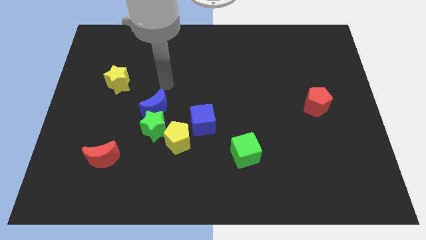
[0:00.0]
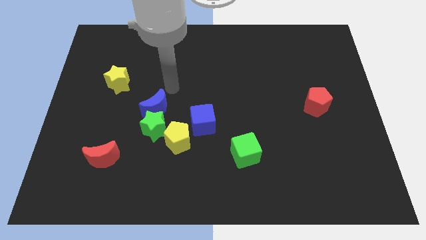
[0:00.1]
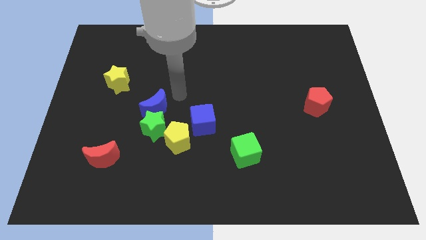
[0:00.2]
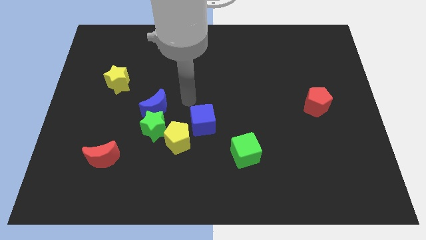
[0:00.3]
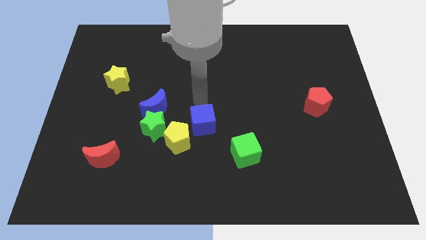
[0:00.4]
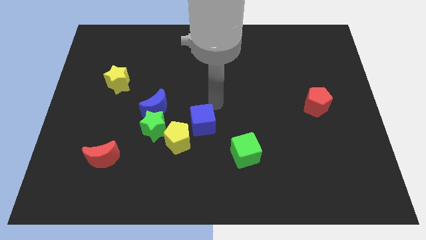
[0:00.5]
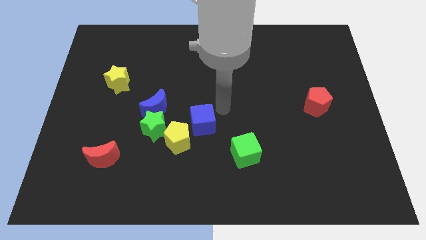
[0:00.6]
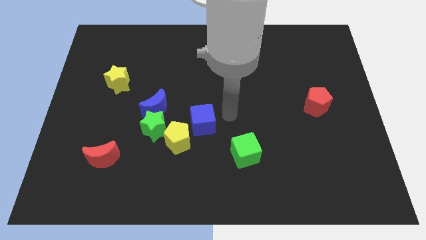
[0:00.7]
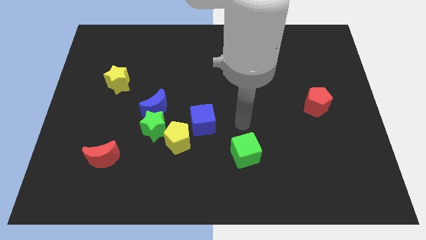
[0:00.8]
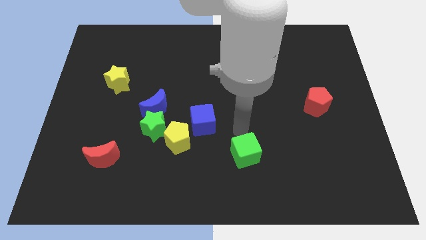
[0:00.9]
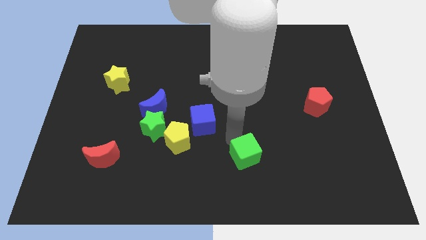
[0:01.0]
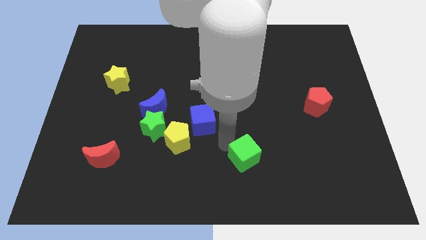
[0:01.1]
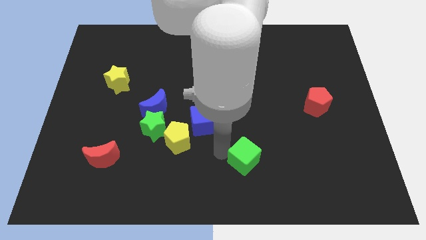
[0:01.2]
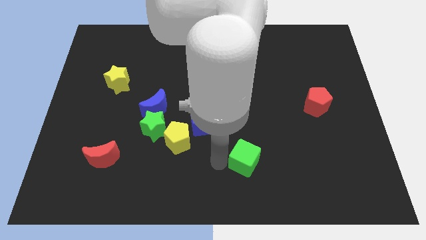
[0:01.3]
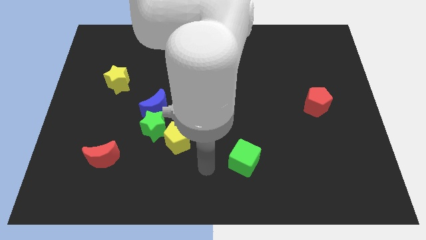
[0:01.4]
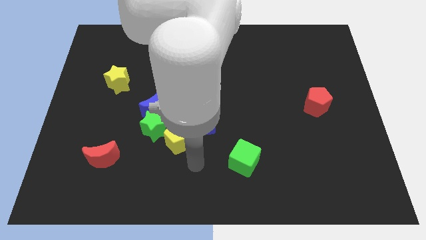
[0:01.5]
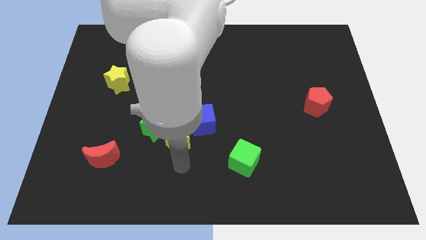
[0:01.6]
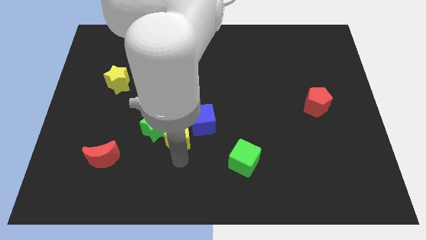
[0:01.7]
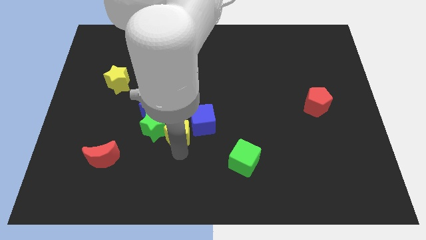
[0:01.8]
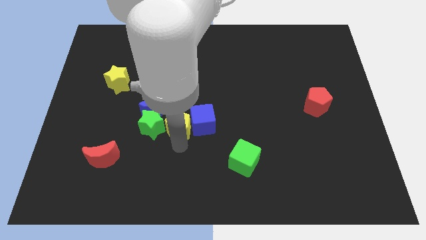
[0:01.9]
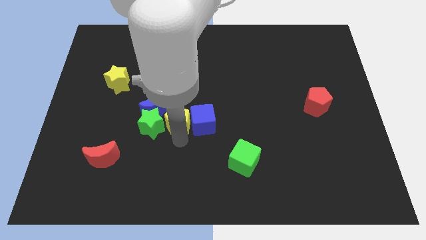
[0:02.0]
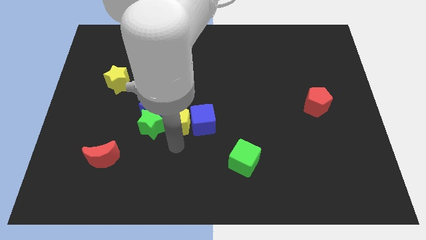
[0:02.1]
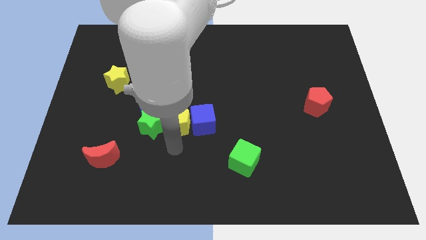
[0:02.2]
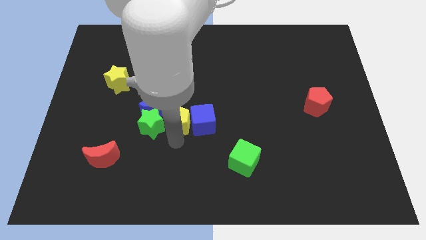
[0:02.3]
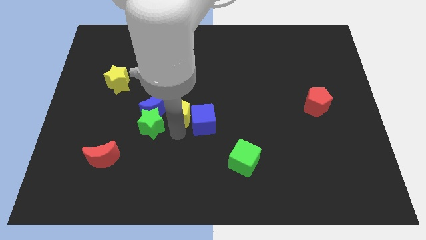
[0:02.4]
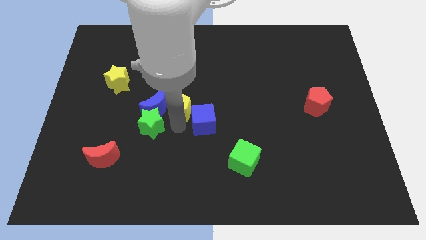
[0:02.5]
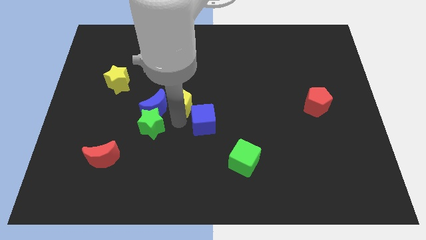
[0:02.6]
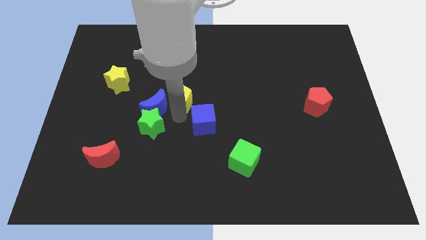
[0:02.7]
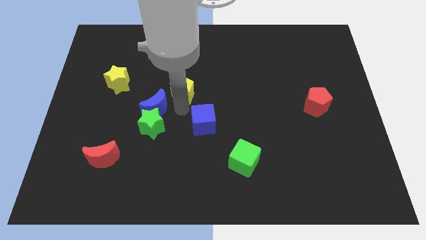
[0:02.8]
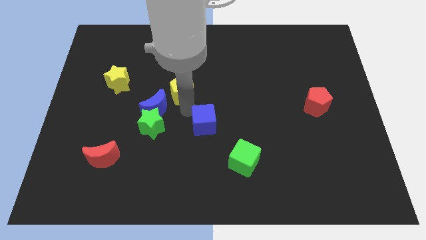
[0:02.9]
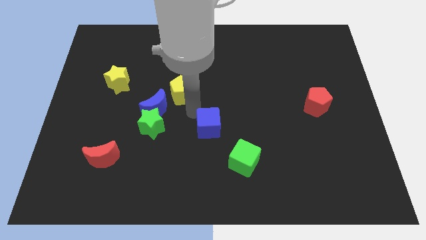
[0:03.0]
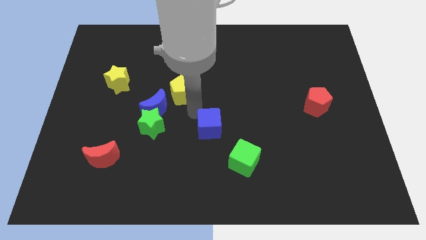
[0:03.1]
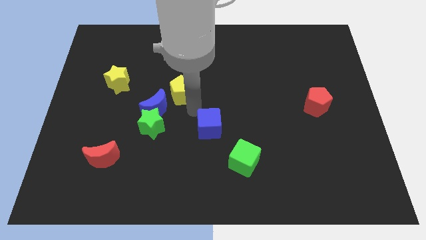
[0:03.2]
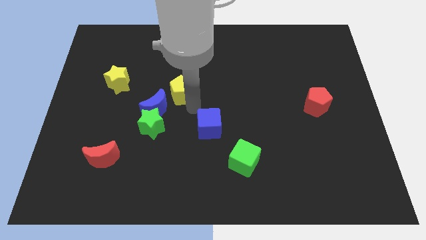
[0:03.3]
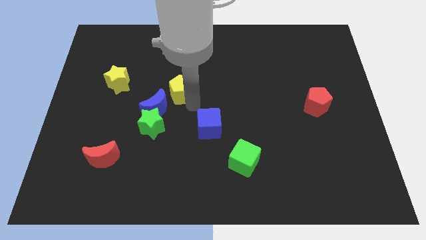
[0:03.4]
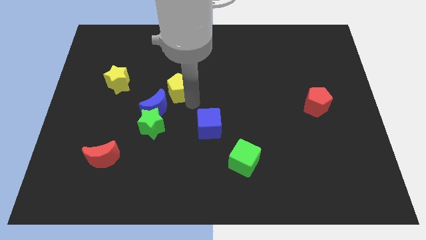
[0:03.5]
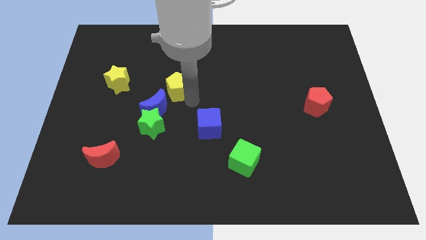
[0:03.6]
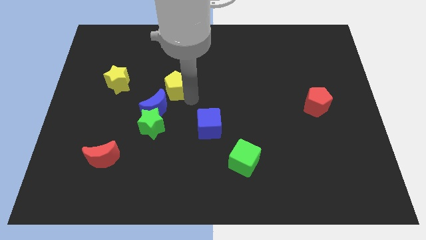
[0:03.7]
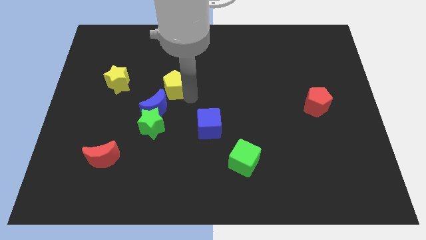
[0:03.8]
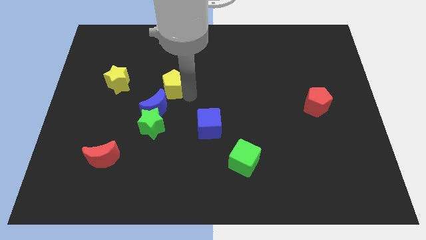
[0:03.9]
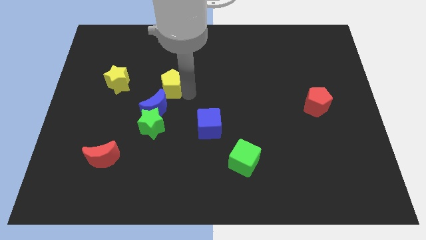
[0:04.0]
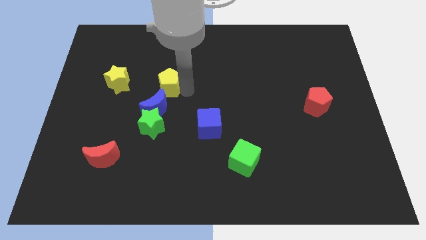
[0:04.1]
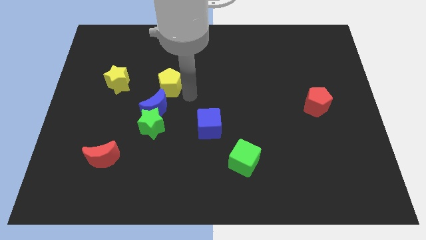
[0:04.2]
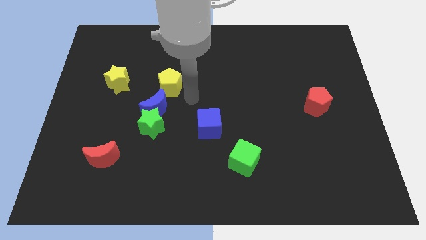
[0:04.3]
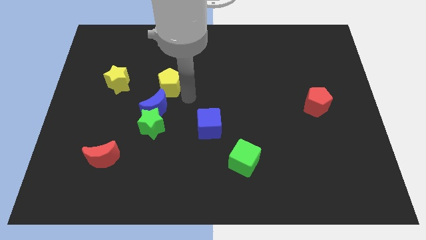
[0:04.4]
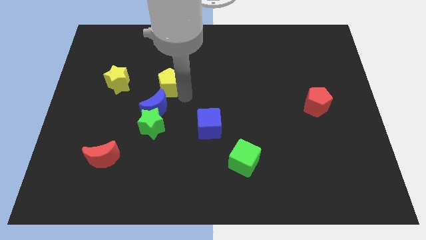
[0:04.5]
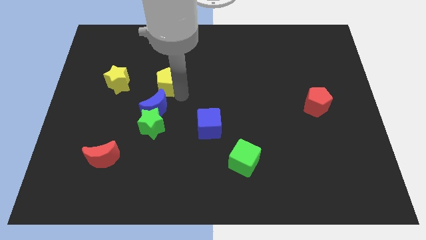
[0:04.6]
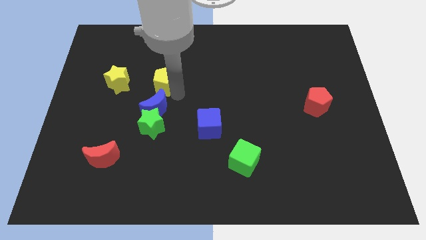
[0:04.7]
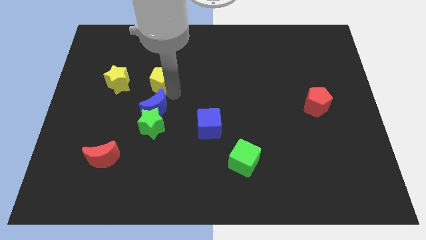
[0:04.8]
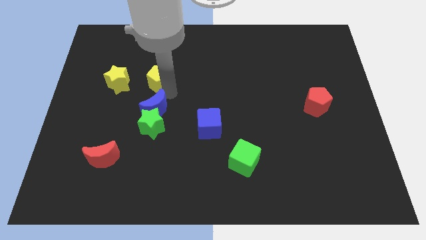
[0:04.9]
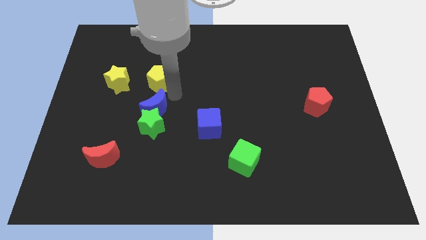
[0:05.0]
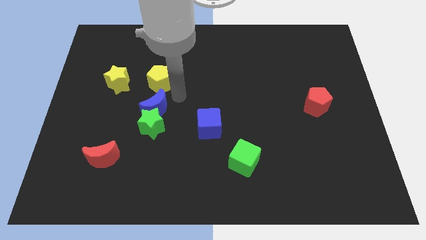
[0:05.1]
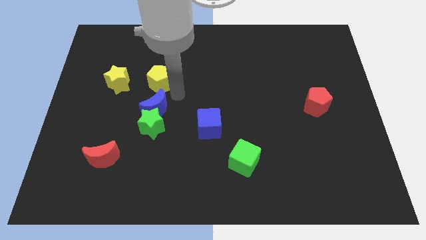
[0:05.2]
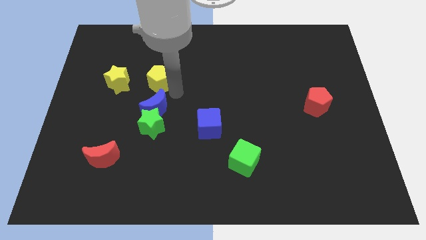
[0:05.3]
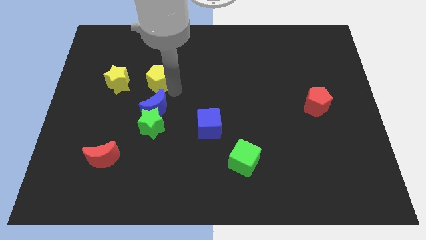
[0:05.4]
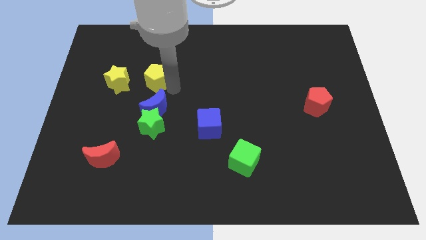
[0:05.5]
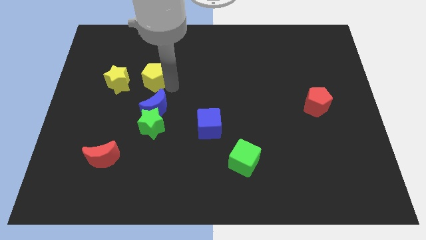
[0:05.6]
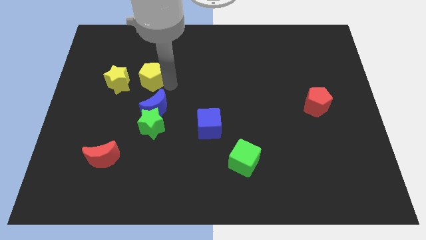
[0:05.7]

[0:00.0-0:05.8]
move the yellow pentagon to the top right side of the yellow star
